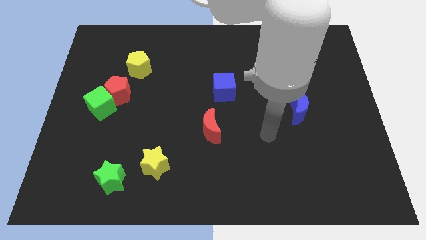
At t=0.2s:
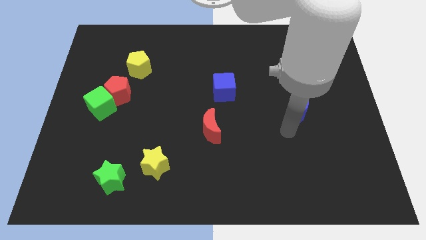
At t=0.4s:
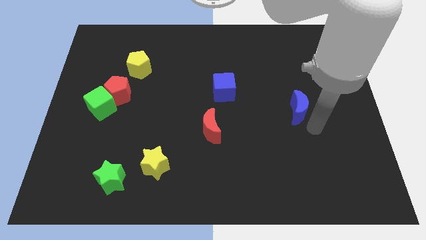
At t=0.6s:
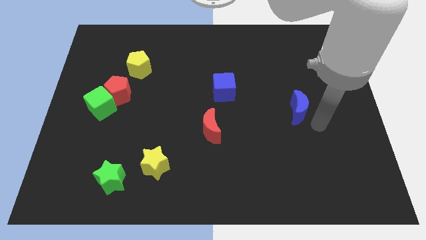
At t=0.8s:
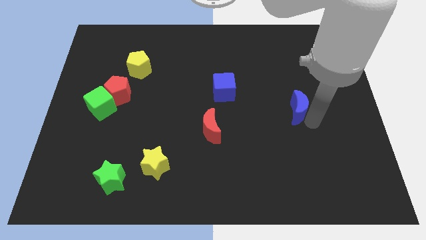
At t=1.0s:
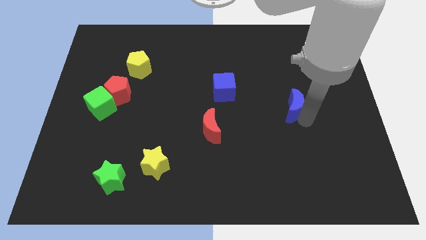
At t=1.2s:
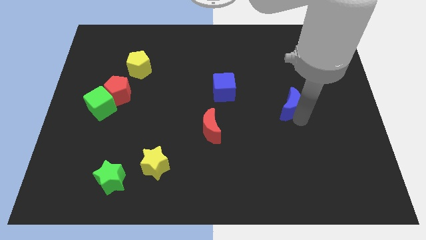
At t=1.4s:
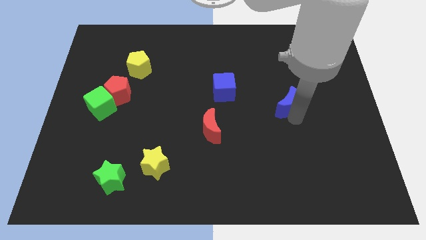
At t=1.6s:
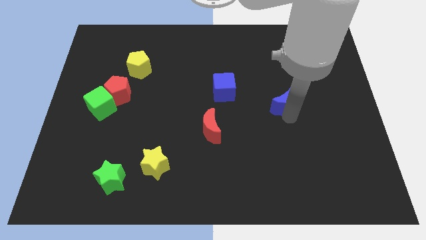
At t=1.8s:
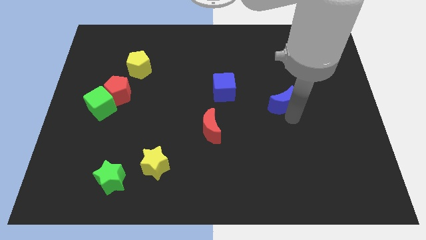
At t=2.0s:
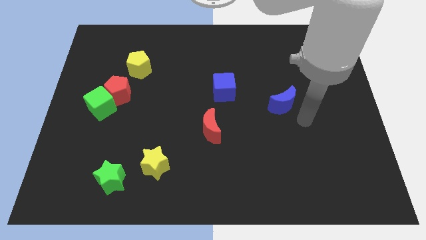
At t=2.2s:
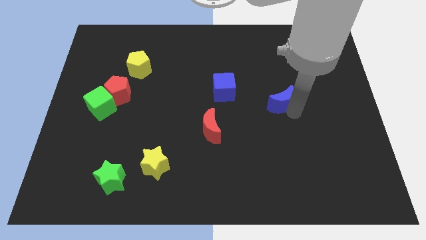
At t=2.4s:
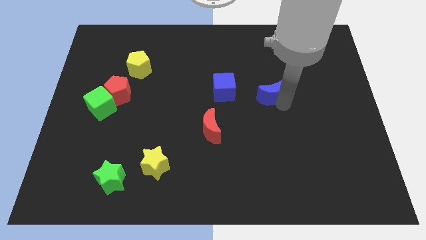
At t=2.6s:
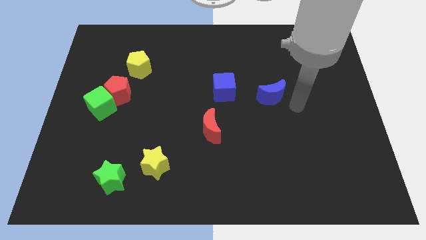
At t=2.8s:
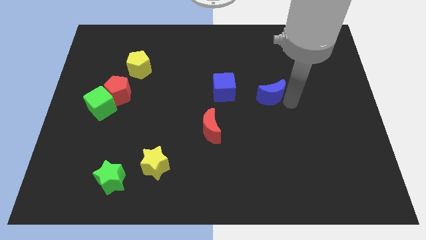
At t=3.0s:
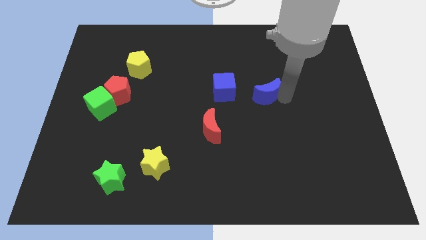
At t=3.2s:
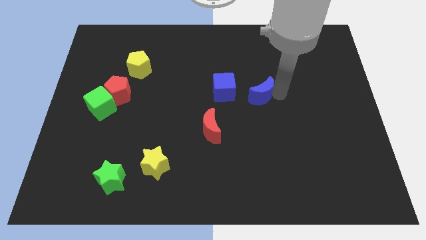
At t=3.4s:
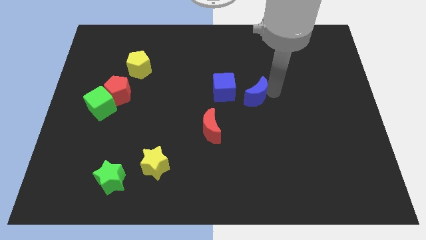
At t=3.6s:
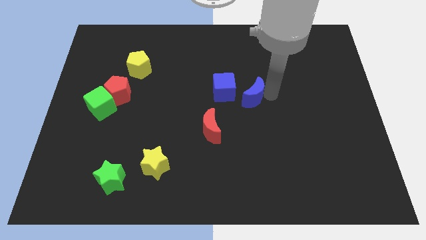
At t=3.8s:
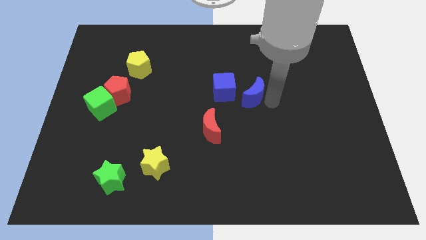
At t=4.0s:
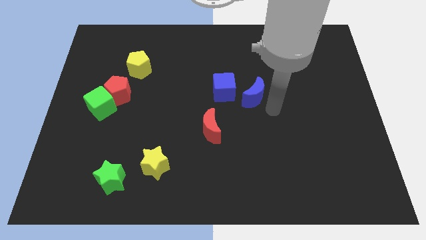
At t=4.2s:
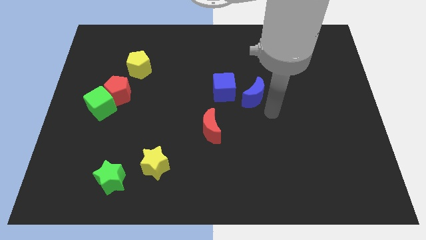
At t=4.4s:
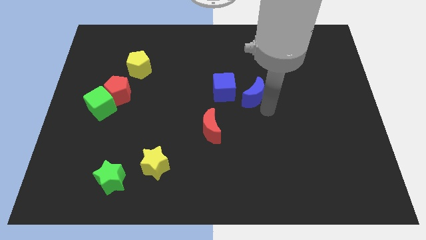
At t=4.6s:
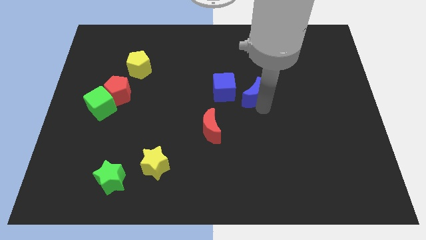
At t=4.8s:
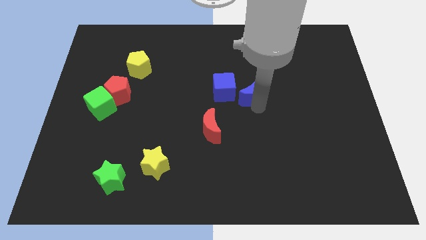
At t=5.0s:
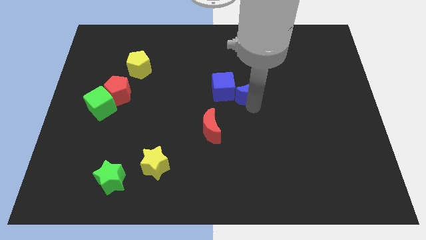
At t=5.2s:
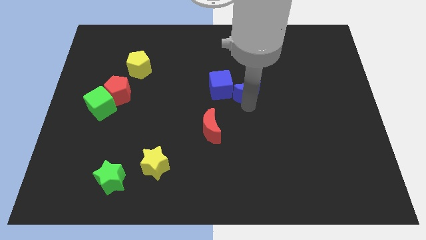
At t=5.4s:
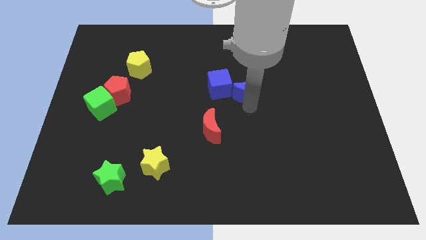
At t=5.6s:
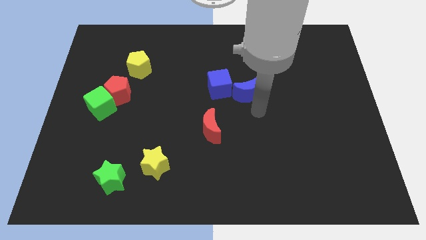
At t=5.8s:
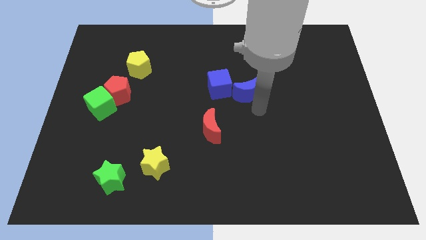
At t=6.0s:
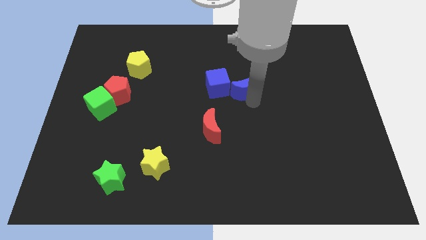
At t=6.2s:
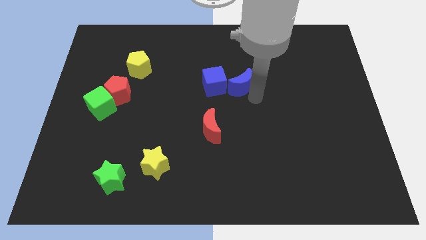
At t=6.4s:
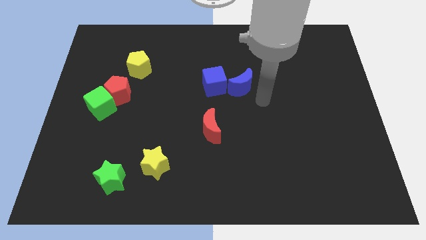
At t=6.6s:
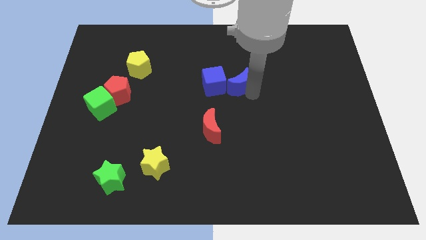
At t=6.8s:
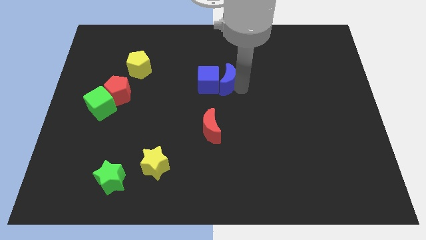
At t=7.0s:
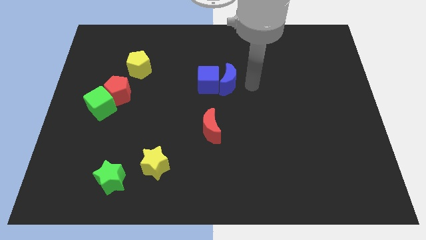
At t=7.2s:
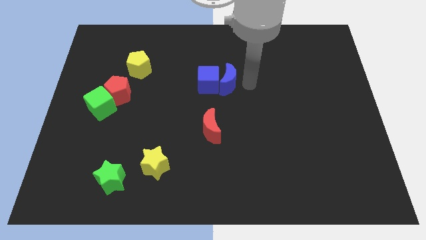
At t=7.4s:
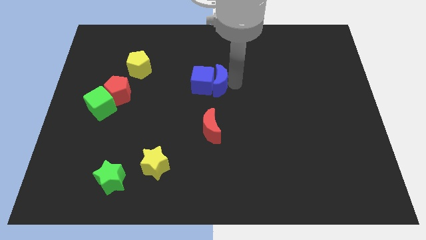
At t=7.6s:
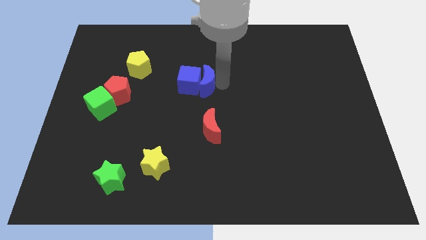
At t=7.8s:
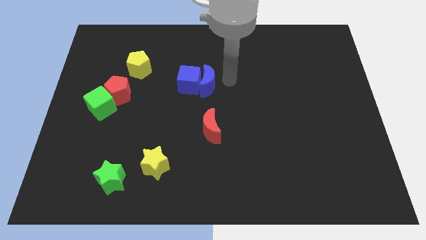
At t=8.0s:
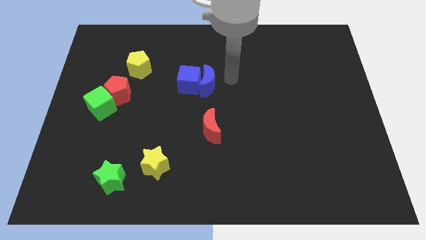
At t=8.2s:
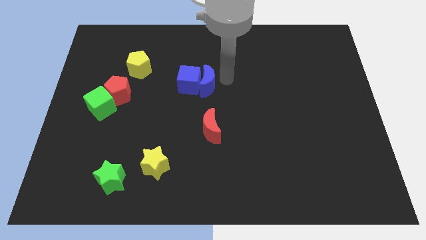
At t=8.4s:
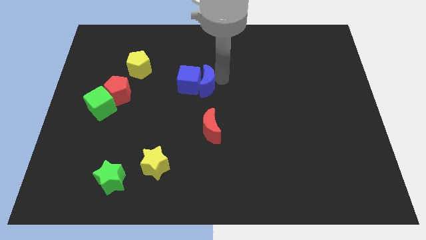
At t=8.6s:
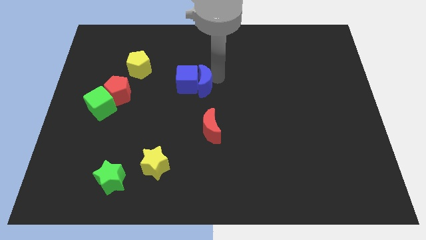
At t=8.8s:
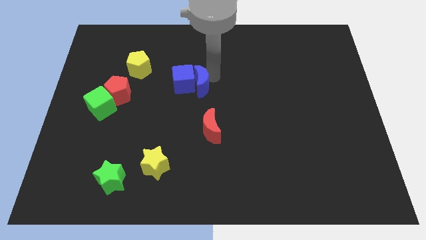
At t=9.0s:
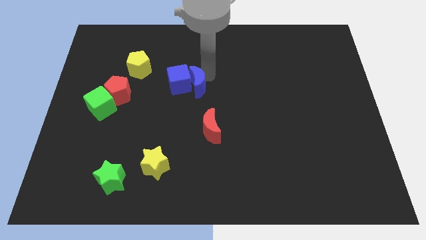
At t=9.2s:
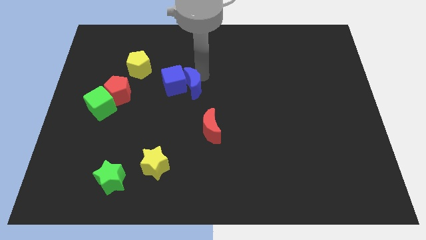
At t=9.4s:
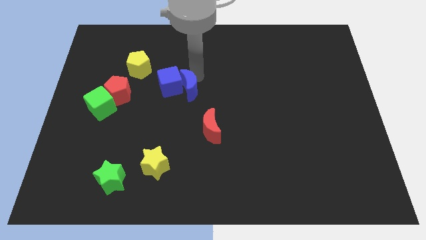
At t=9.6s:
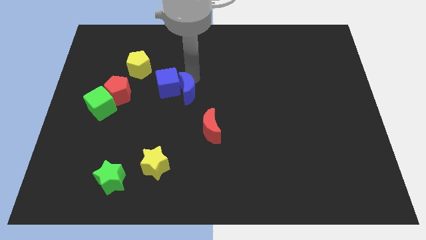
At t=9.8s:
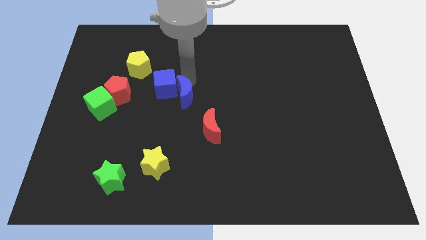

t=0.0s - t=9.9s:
slide the blue moon to the right of the red pentagon

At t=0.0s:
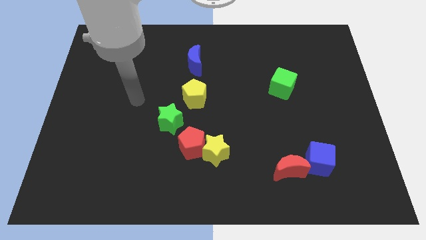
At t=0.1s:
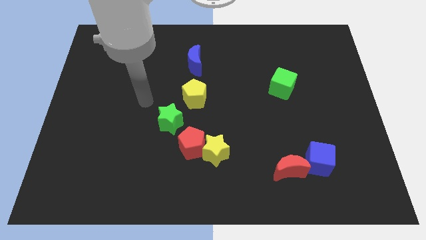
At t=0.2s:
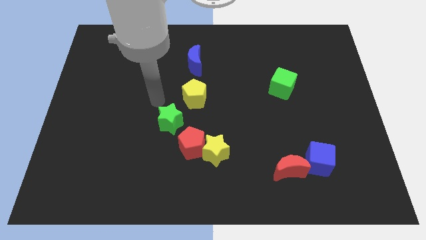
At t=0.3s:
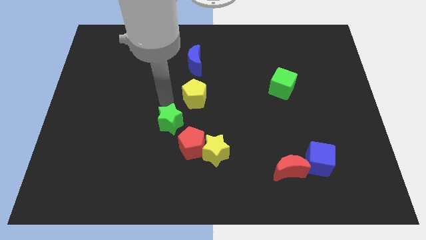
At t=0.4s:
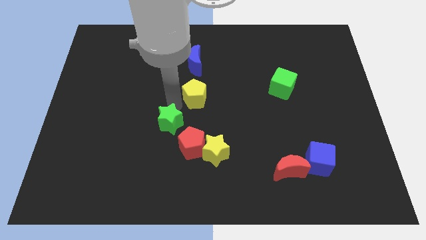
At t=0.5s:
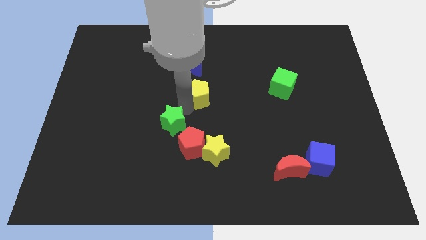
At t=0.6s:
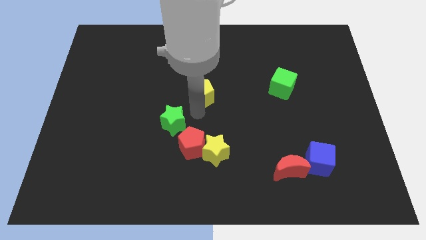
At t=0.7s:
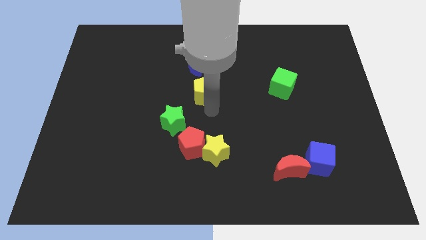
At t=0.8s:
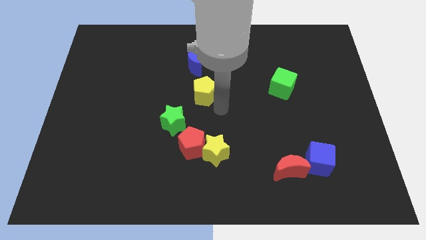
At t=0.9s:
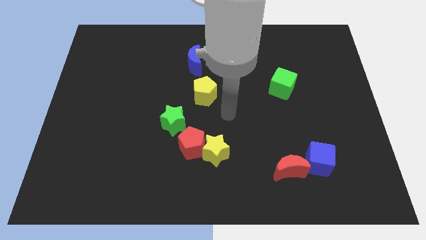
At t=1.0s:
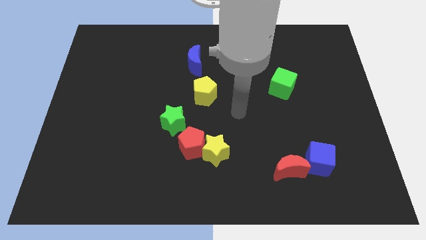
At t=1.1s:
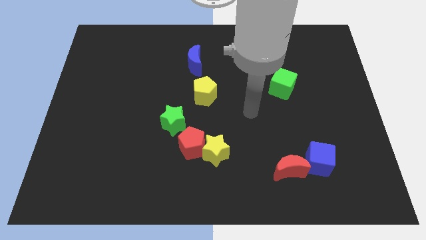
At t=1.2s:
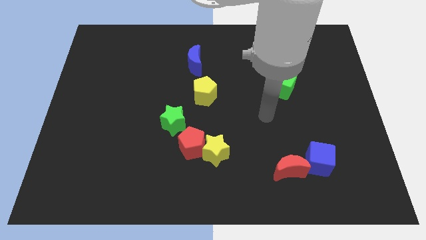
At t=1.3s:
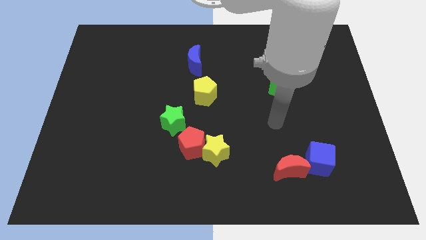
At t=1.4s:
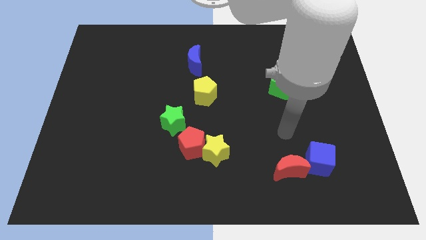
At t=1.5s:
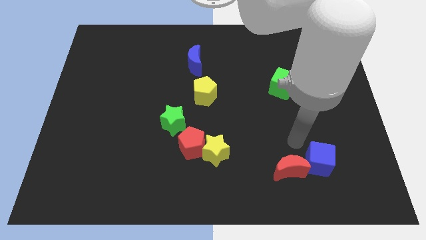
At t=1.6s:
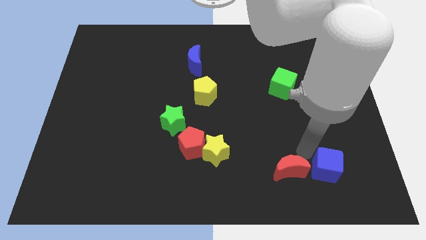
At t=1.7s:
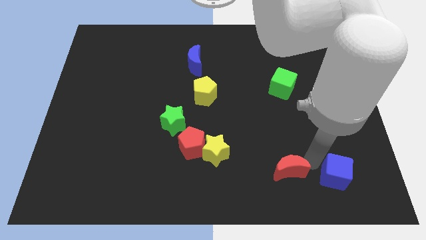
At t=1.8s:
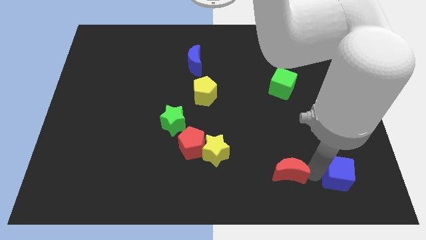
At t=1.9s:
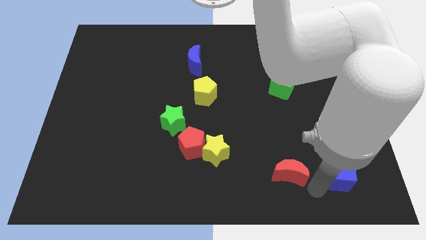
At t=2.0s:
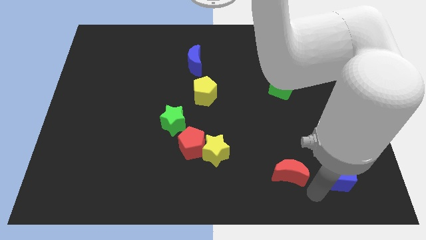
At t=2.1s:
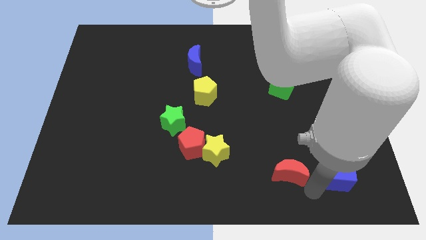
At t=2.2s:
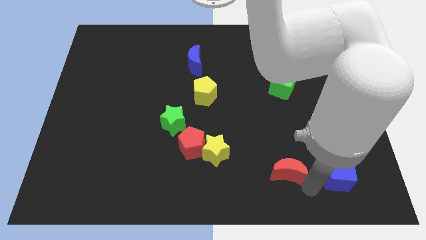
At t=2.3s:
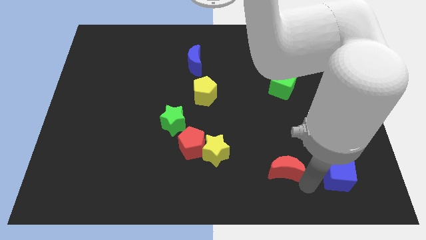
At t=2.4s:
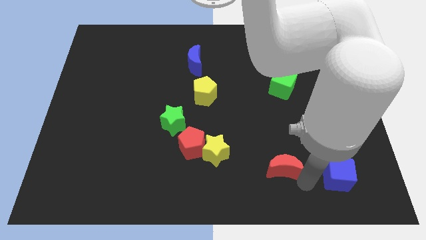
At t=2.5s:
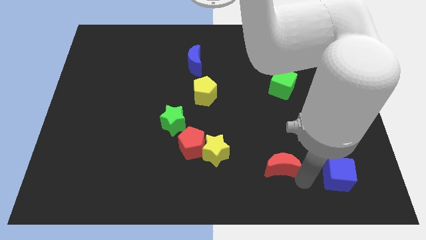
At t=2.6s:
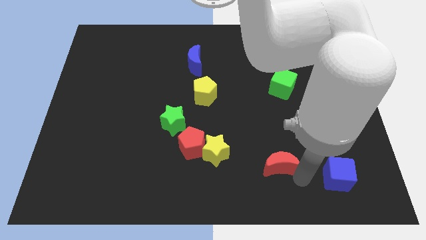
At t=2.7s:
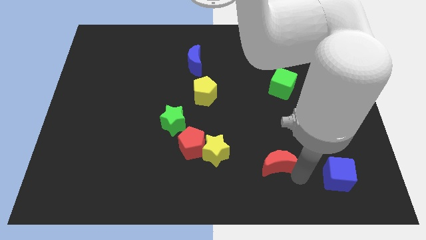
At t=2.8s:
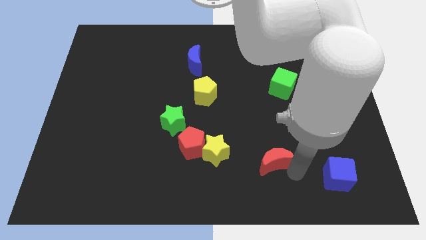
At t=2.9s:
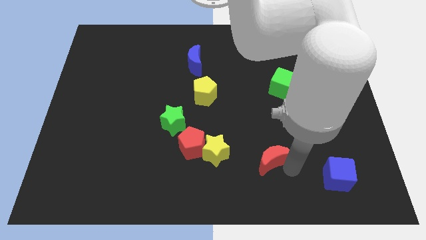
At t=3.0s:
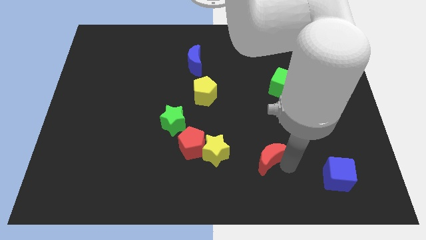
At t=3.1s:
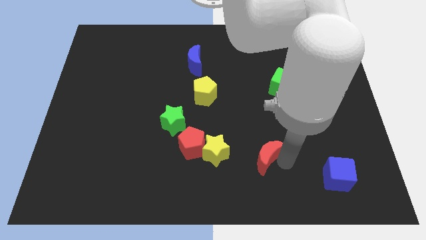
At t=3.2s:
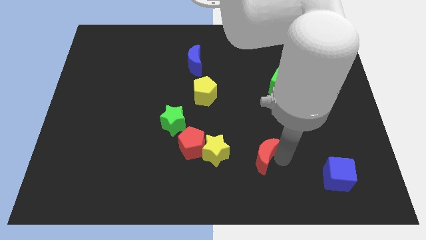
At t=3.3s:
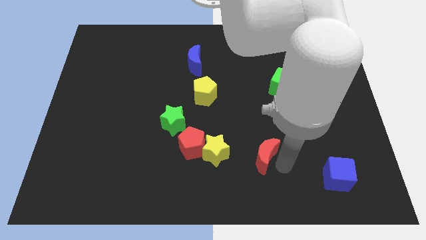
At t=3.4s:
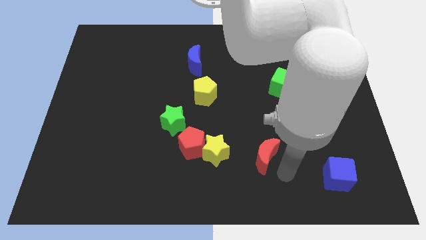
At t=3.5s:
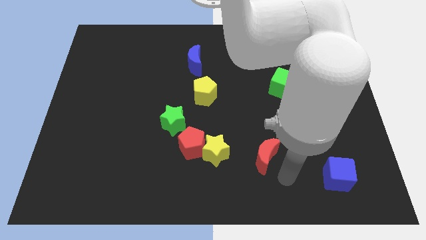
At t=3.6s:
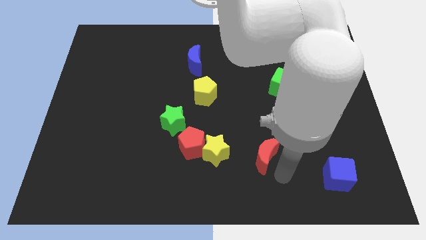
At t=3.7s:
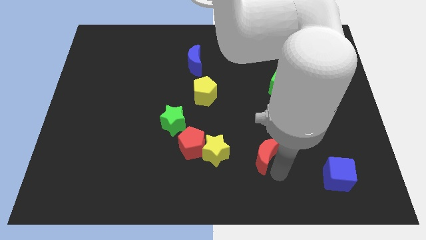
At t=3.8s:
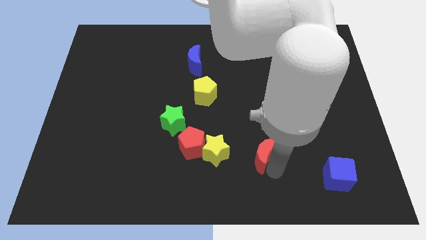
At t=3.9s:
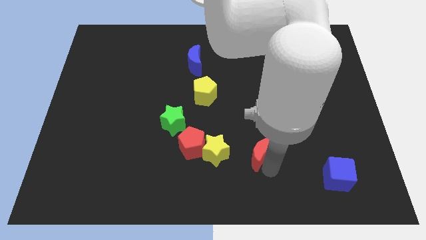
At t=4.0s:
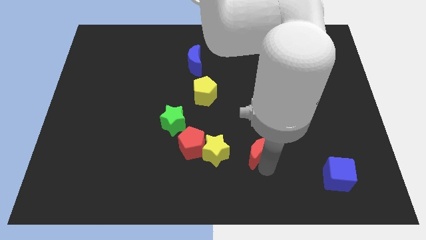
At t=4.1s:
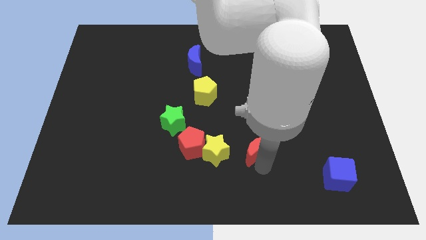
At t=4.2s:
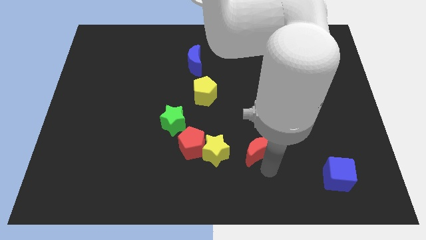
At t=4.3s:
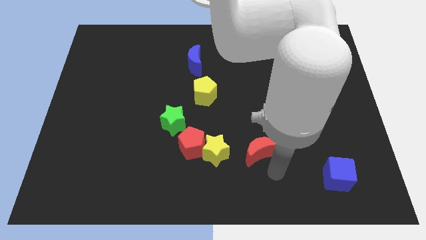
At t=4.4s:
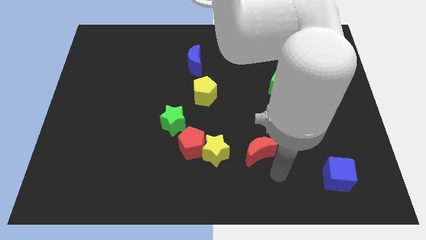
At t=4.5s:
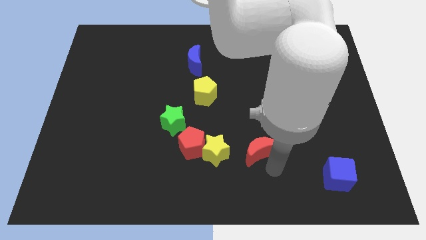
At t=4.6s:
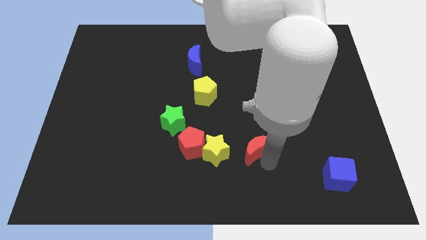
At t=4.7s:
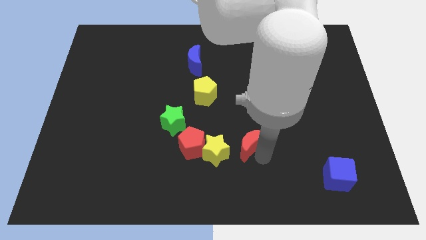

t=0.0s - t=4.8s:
slide the red moon to the top right of the yellow star
